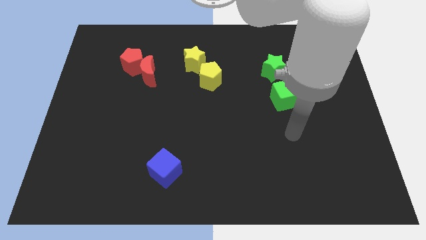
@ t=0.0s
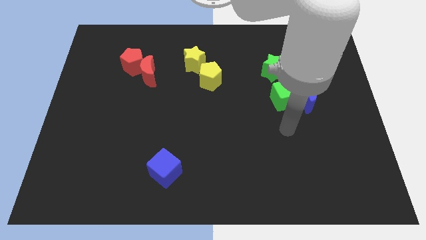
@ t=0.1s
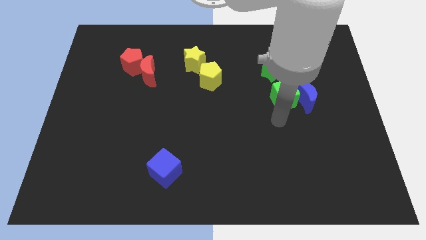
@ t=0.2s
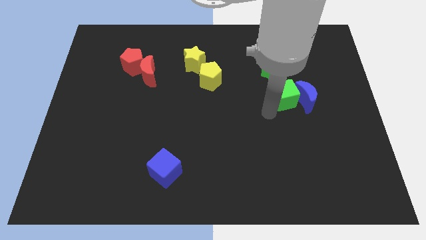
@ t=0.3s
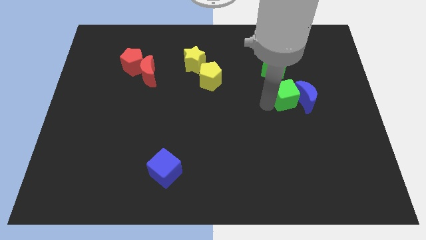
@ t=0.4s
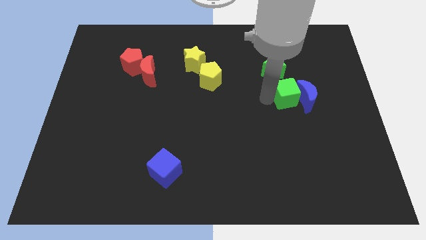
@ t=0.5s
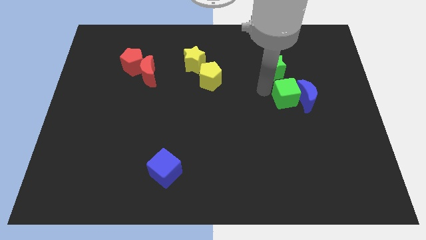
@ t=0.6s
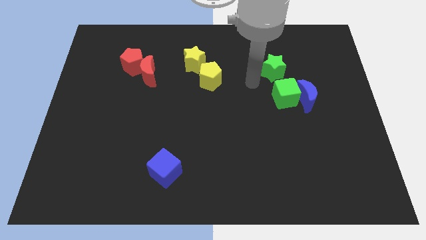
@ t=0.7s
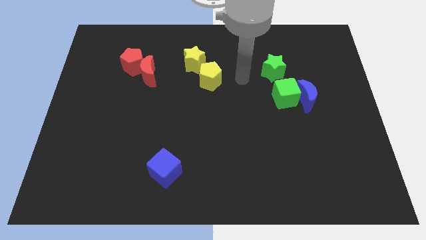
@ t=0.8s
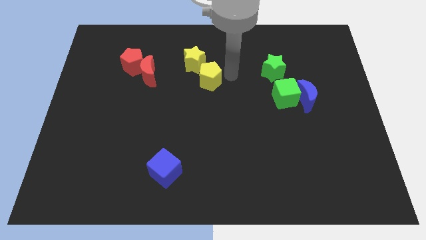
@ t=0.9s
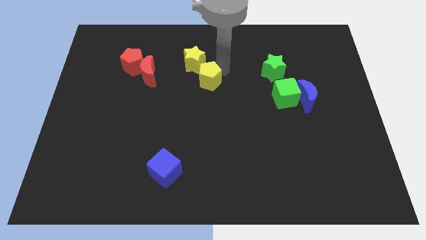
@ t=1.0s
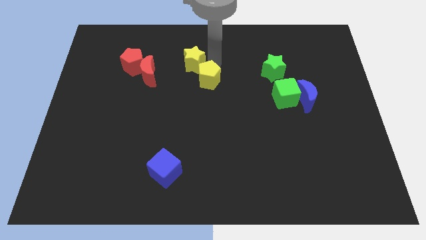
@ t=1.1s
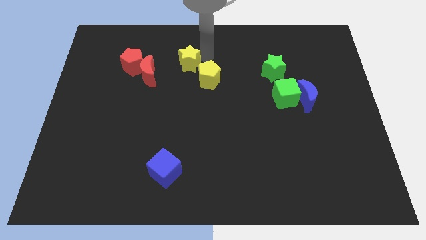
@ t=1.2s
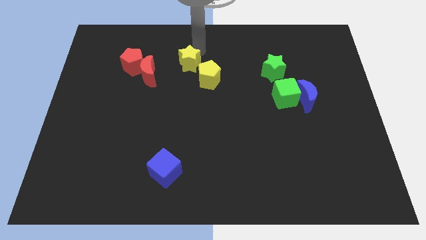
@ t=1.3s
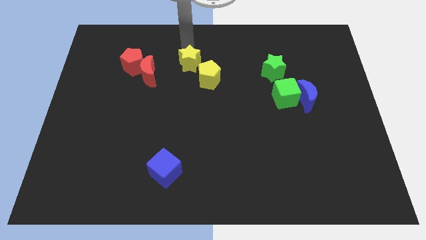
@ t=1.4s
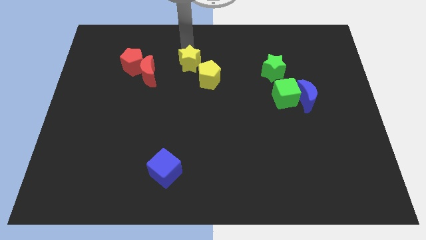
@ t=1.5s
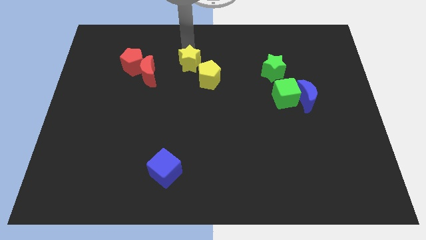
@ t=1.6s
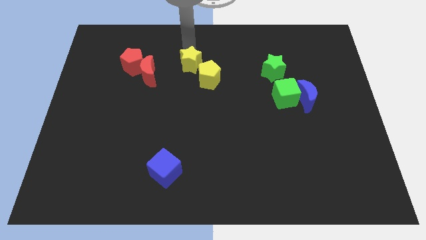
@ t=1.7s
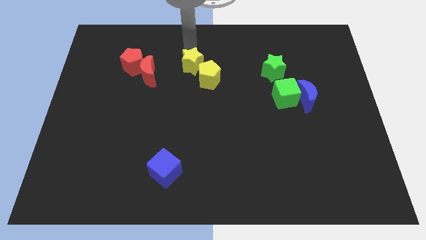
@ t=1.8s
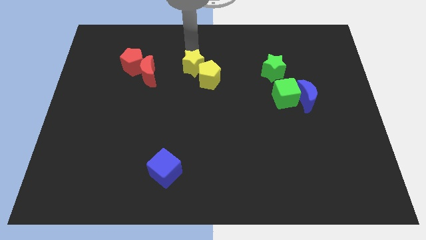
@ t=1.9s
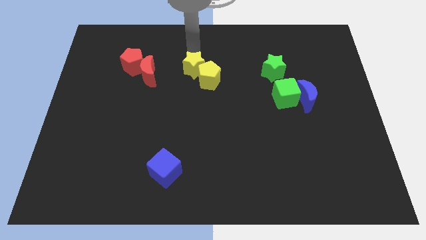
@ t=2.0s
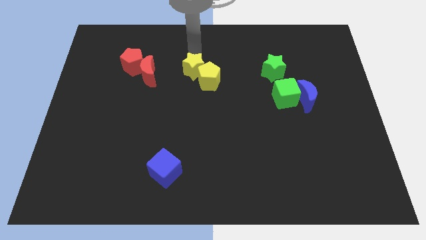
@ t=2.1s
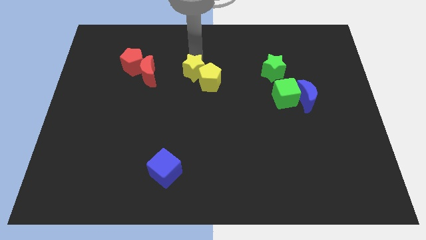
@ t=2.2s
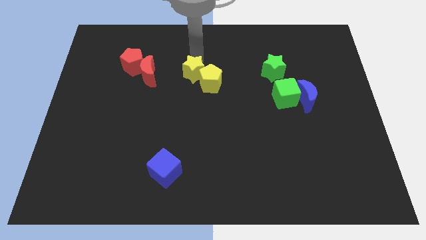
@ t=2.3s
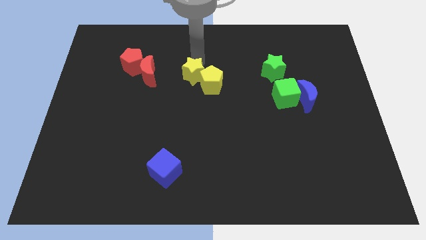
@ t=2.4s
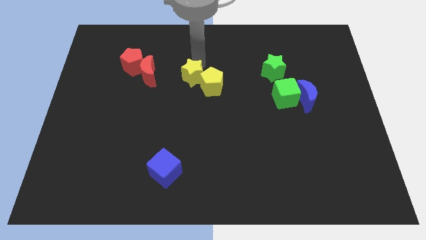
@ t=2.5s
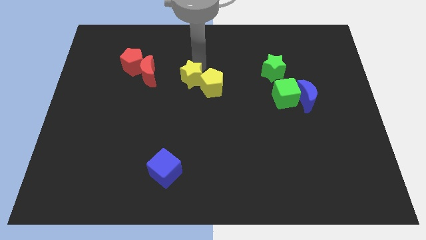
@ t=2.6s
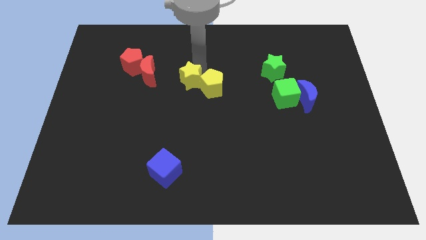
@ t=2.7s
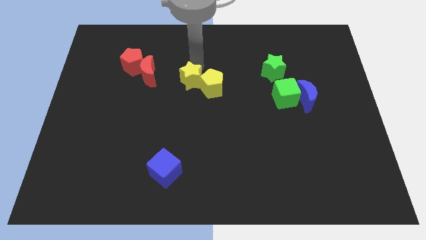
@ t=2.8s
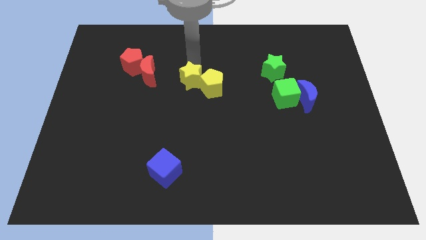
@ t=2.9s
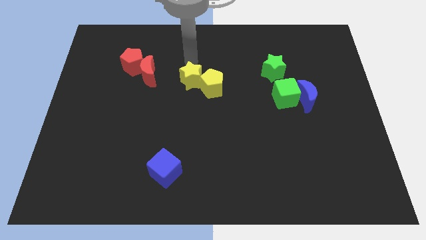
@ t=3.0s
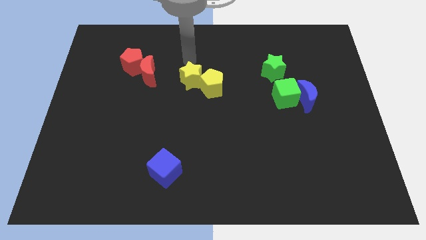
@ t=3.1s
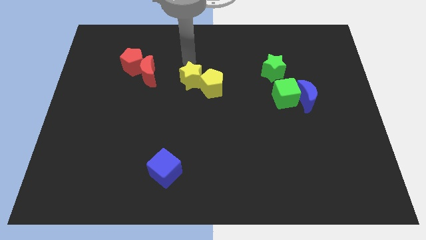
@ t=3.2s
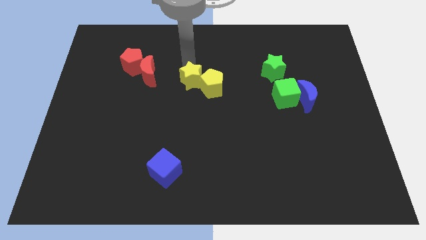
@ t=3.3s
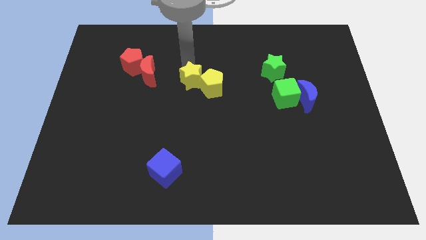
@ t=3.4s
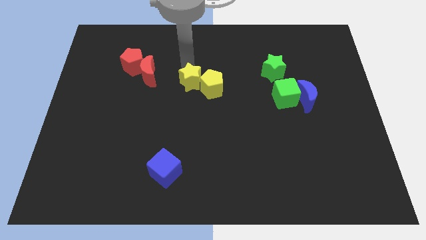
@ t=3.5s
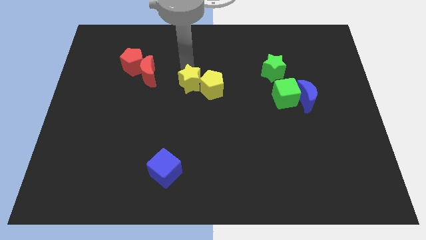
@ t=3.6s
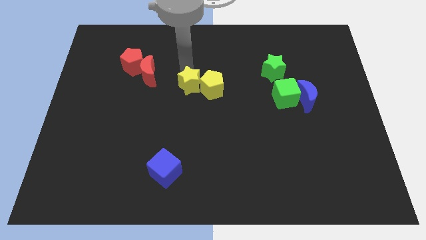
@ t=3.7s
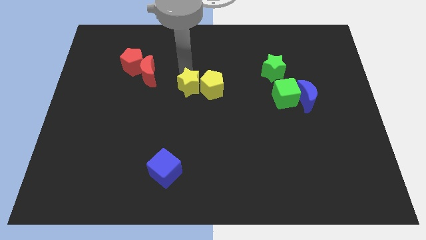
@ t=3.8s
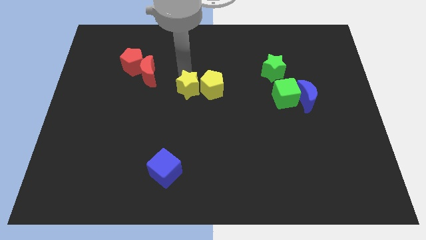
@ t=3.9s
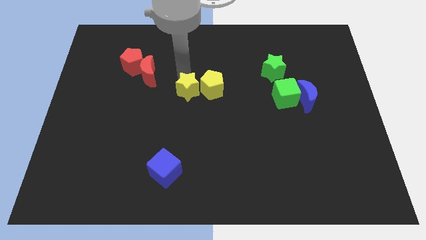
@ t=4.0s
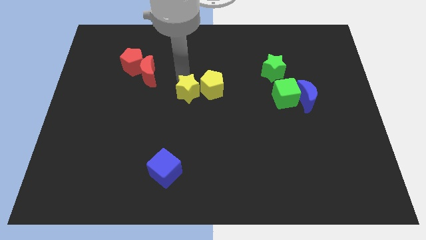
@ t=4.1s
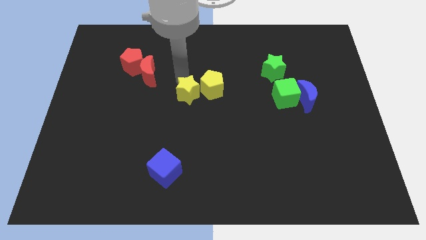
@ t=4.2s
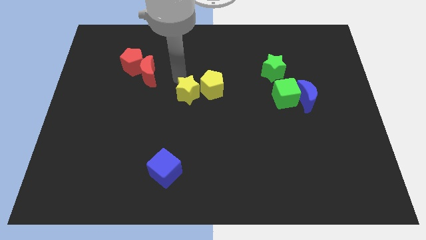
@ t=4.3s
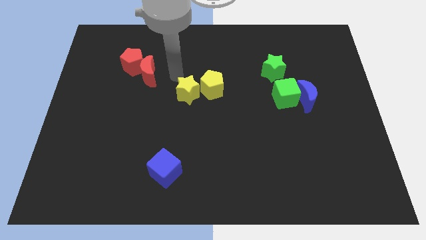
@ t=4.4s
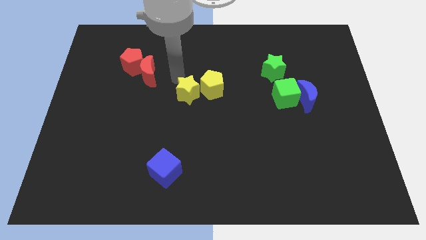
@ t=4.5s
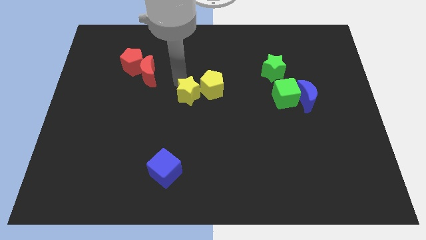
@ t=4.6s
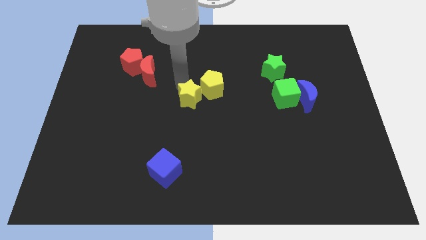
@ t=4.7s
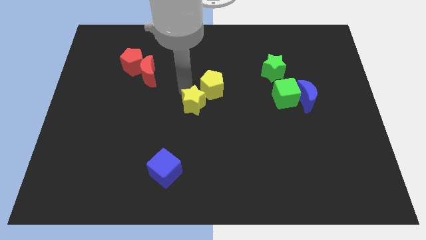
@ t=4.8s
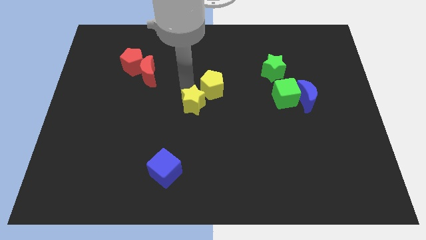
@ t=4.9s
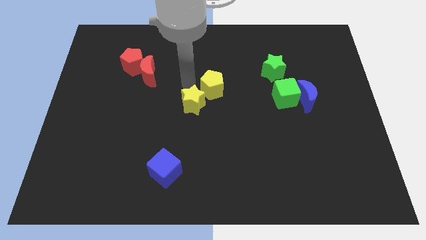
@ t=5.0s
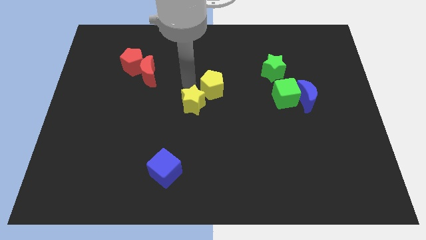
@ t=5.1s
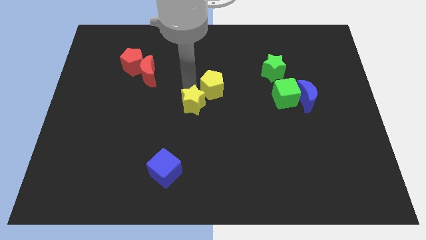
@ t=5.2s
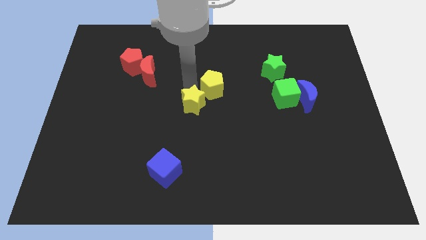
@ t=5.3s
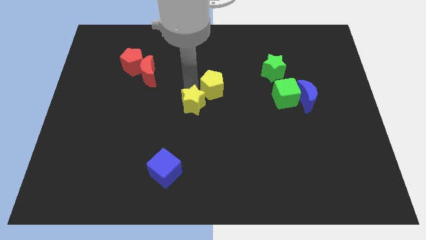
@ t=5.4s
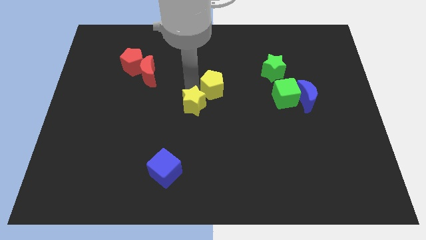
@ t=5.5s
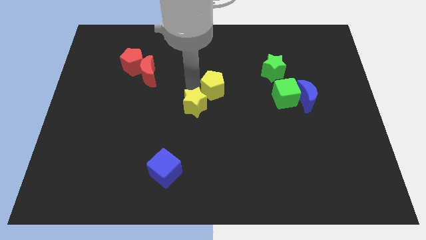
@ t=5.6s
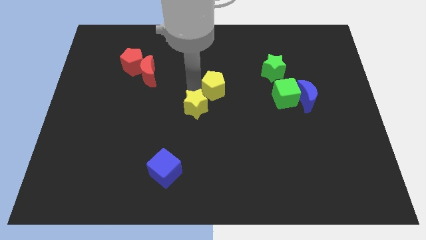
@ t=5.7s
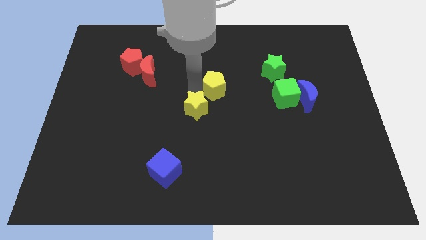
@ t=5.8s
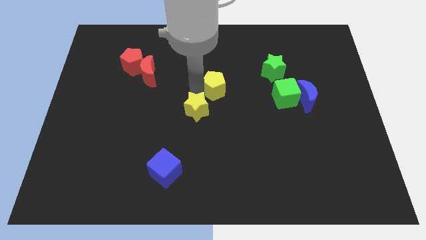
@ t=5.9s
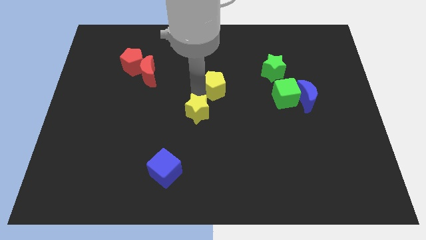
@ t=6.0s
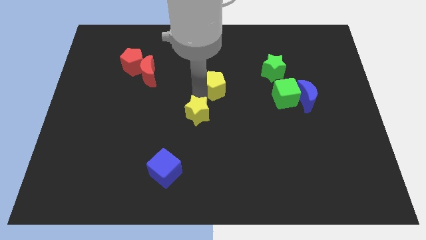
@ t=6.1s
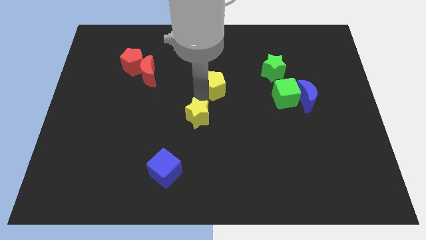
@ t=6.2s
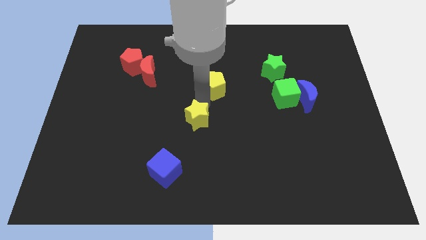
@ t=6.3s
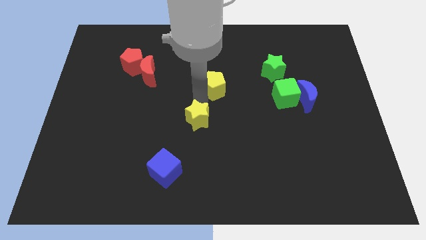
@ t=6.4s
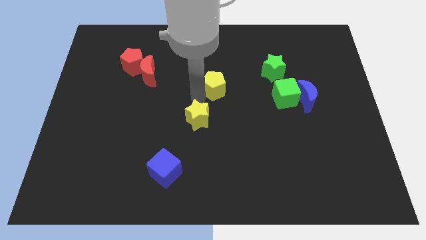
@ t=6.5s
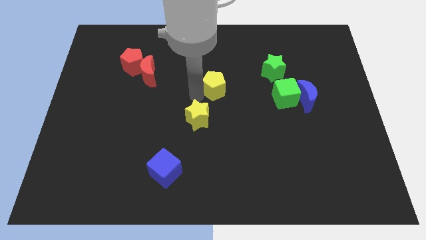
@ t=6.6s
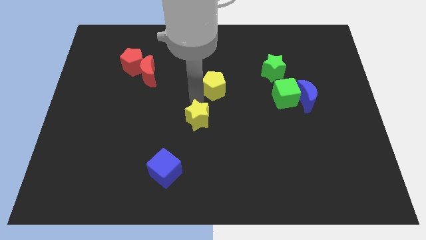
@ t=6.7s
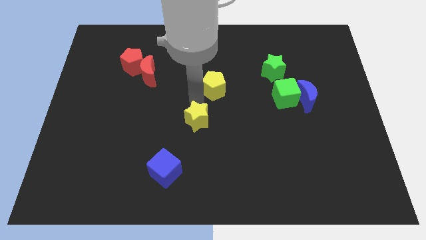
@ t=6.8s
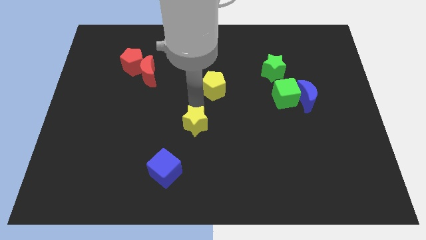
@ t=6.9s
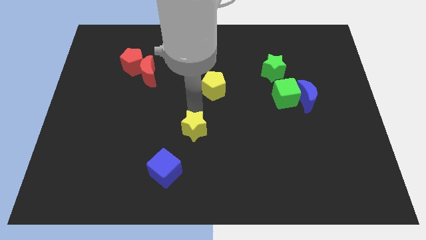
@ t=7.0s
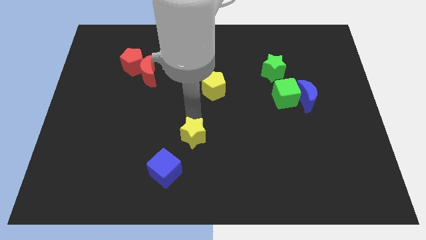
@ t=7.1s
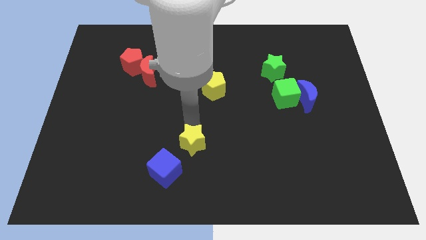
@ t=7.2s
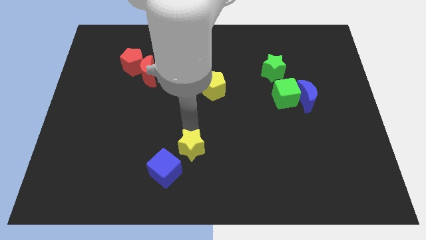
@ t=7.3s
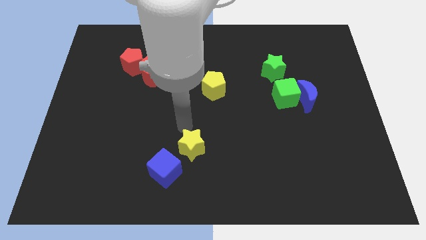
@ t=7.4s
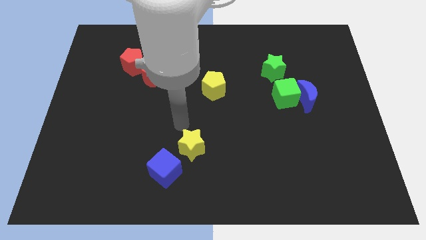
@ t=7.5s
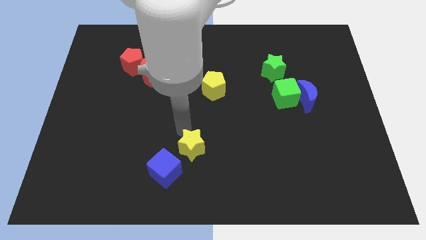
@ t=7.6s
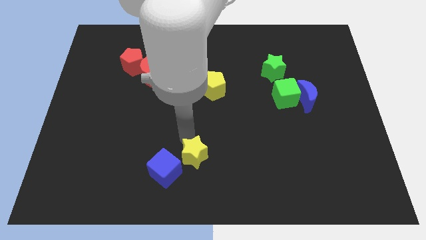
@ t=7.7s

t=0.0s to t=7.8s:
slide the yellow star to the bottom
